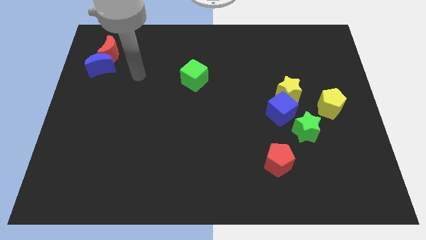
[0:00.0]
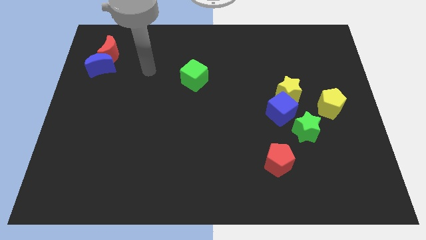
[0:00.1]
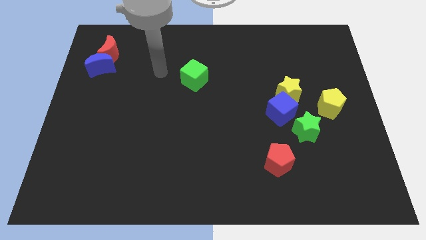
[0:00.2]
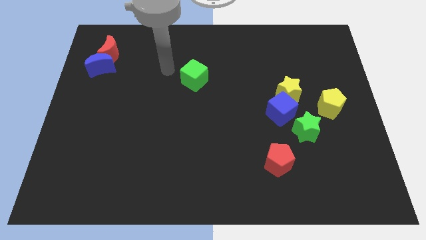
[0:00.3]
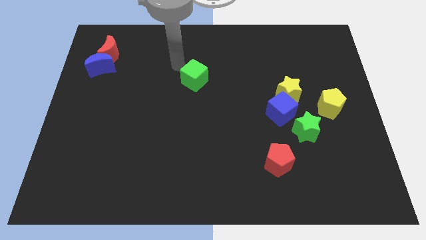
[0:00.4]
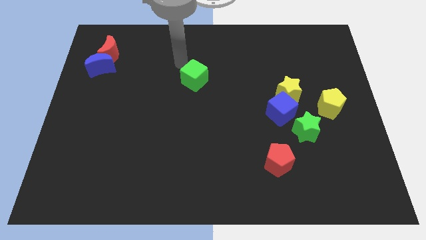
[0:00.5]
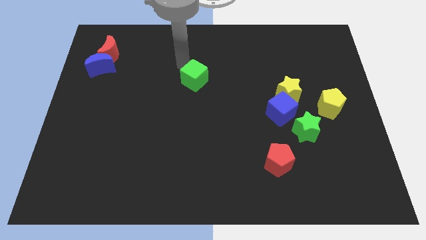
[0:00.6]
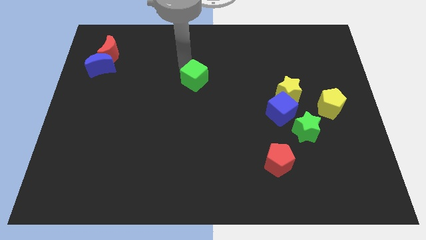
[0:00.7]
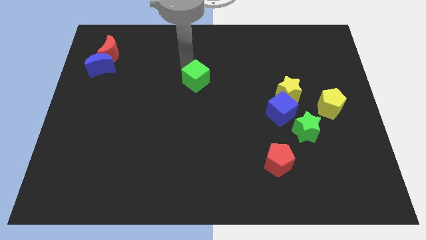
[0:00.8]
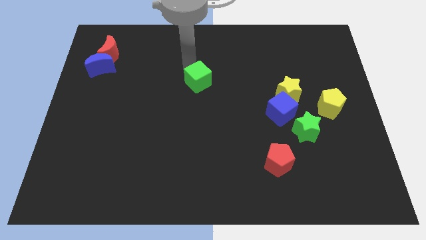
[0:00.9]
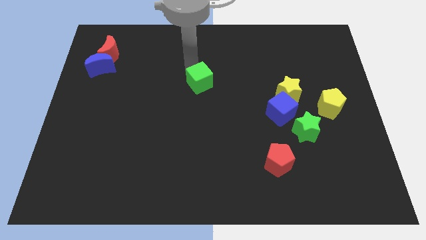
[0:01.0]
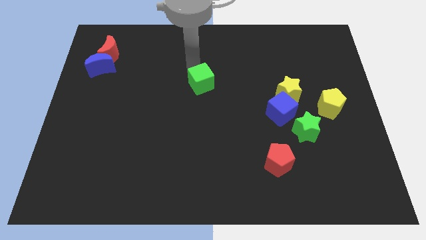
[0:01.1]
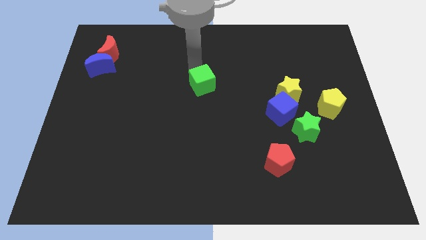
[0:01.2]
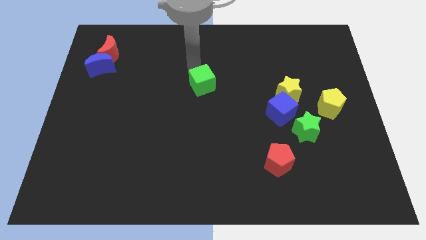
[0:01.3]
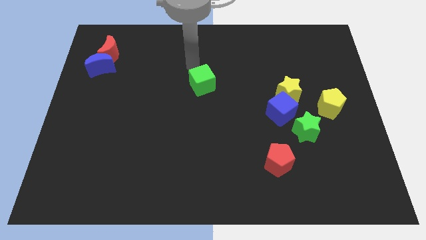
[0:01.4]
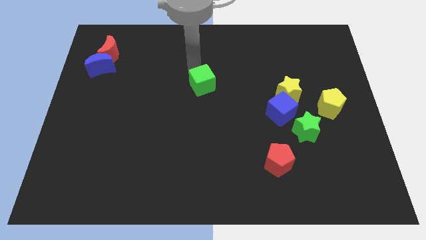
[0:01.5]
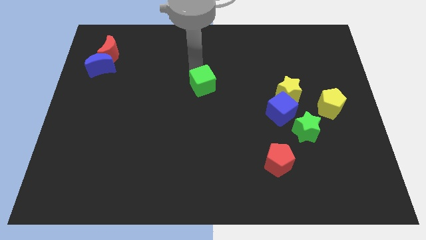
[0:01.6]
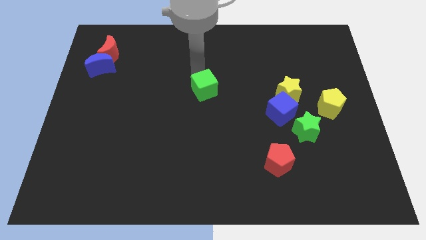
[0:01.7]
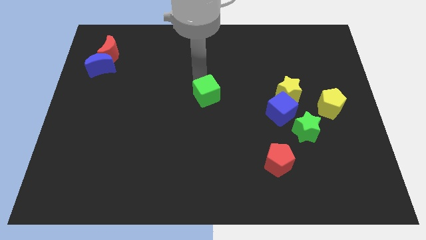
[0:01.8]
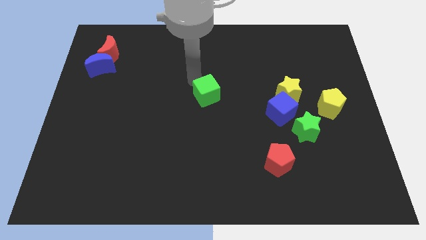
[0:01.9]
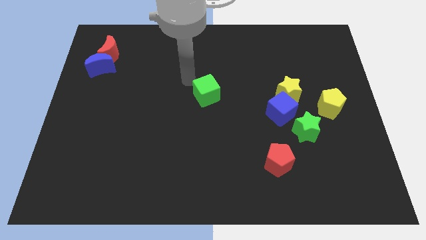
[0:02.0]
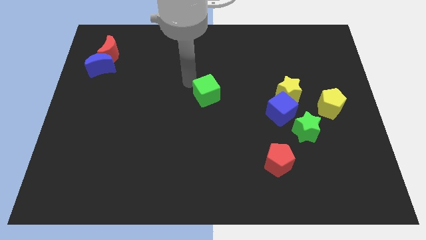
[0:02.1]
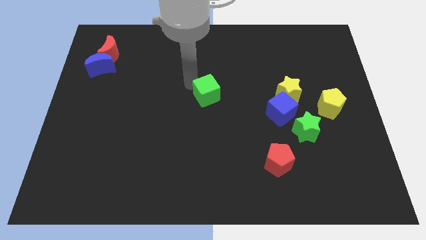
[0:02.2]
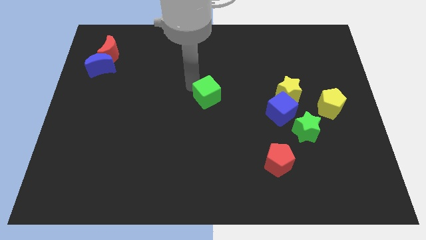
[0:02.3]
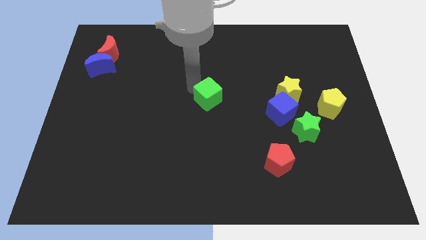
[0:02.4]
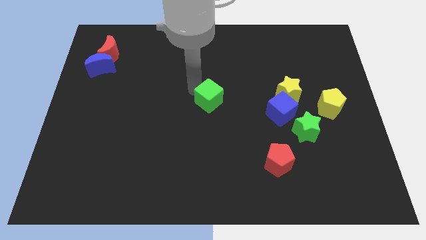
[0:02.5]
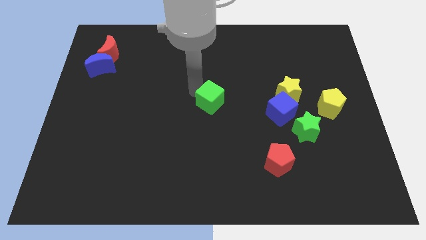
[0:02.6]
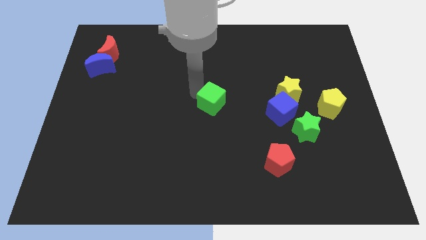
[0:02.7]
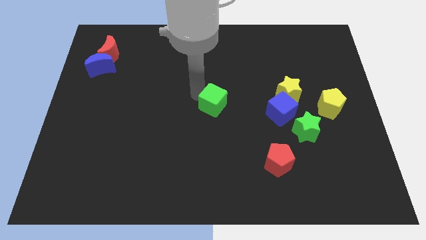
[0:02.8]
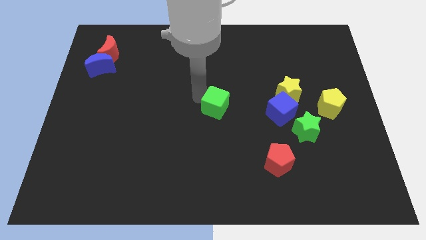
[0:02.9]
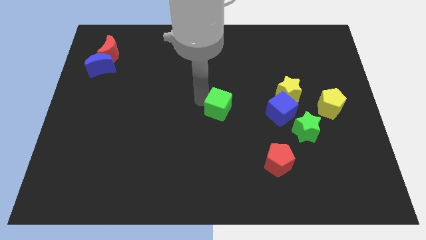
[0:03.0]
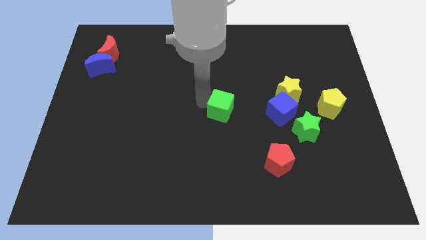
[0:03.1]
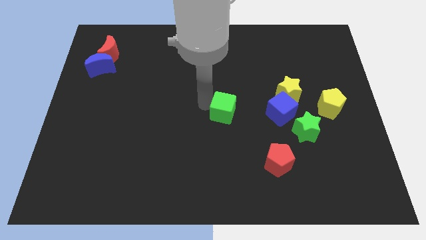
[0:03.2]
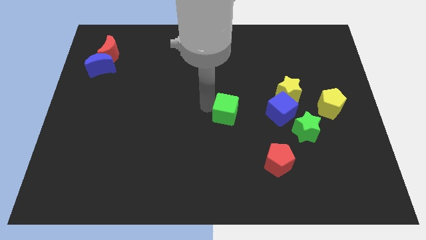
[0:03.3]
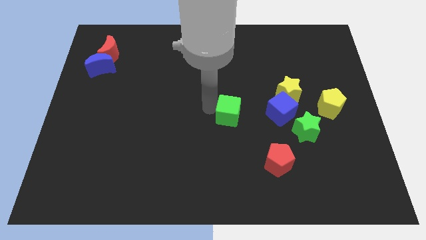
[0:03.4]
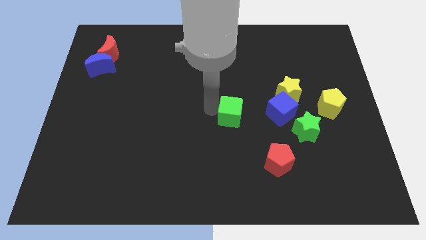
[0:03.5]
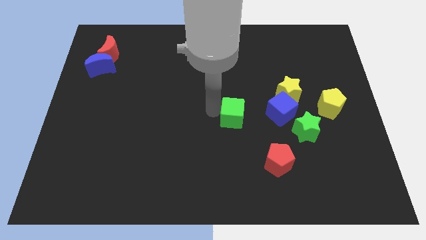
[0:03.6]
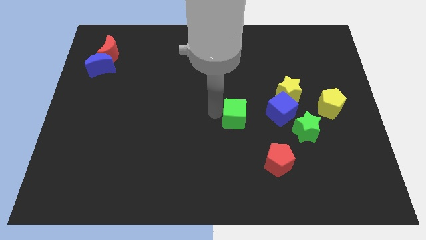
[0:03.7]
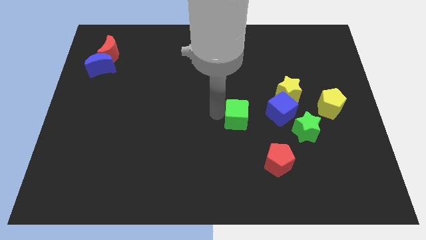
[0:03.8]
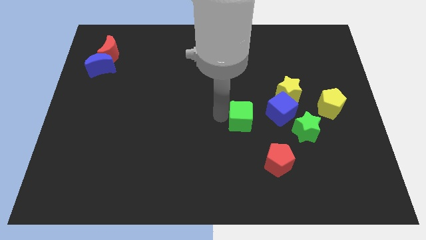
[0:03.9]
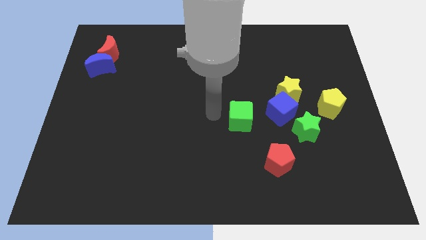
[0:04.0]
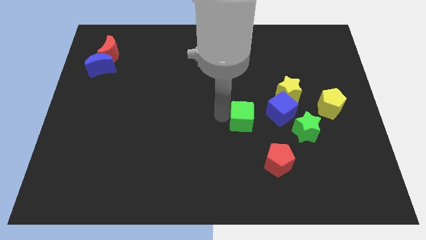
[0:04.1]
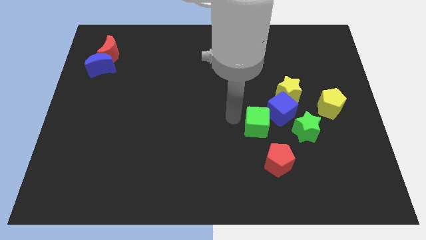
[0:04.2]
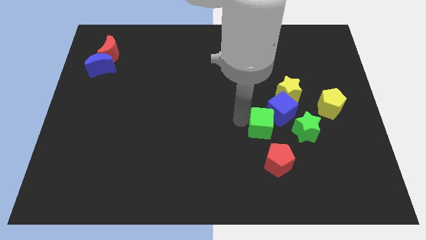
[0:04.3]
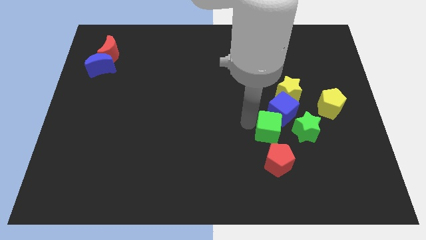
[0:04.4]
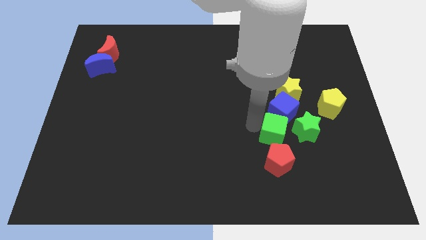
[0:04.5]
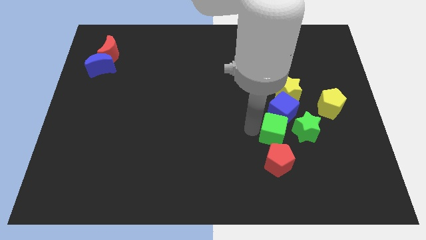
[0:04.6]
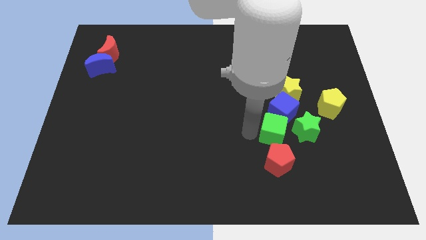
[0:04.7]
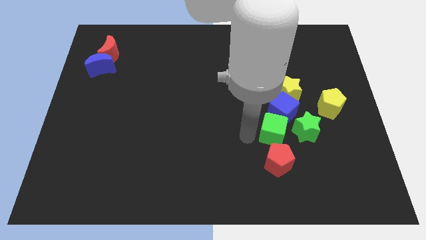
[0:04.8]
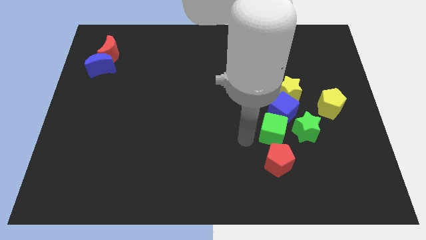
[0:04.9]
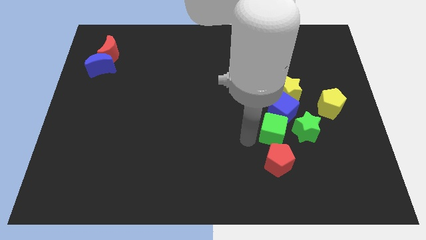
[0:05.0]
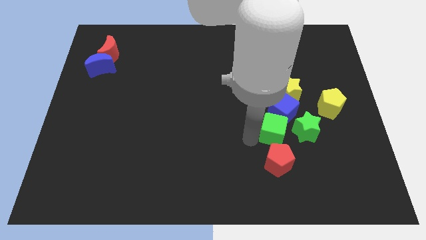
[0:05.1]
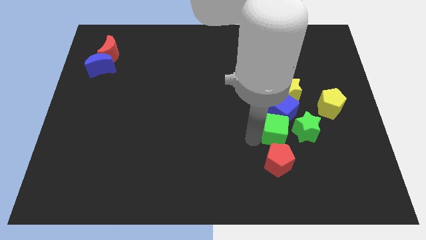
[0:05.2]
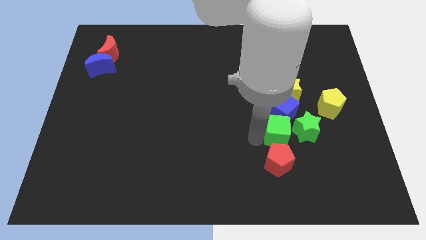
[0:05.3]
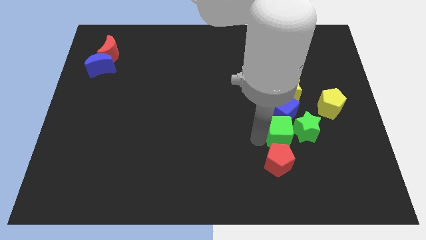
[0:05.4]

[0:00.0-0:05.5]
push the green cube close to the green star

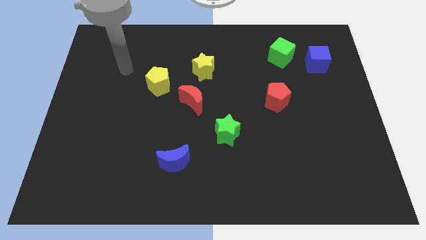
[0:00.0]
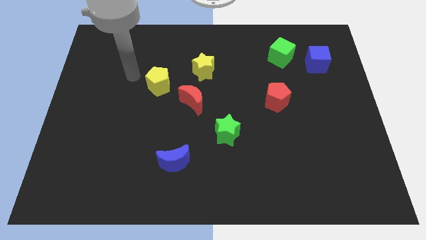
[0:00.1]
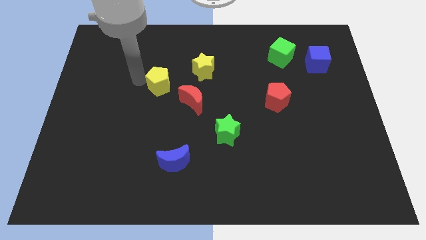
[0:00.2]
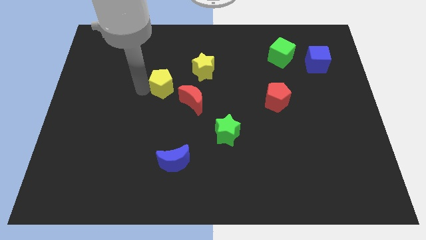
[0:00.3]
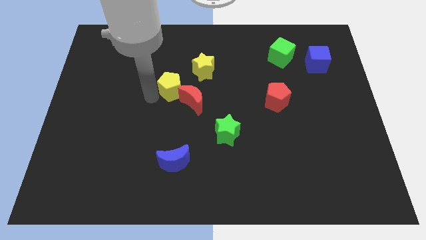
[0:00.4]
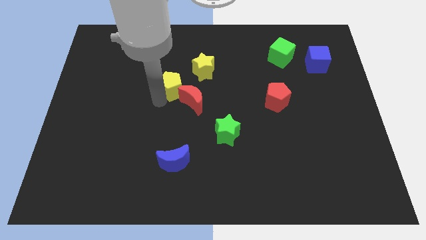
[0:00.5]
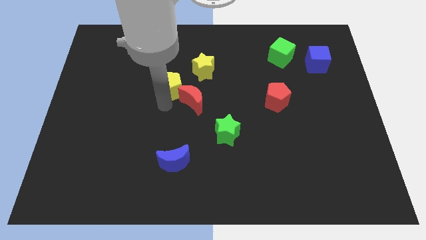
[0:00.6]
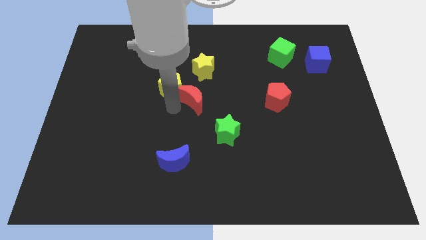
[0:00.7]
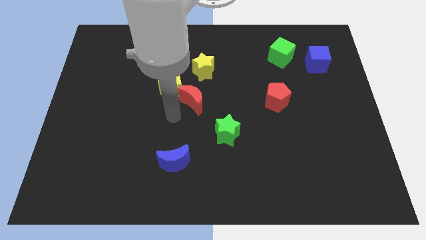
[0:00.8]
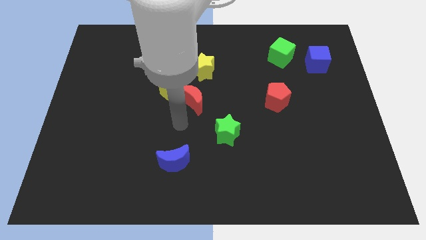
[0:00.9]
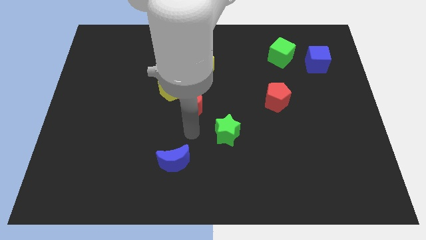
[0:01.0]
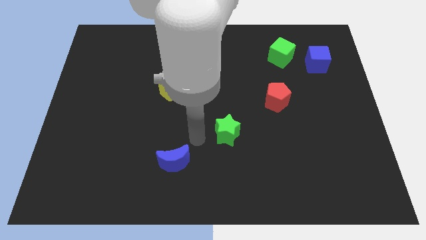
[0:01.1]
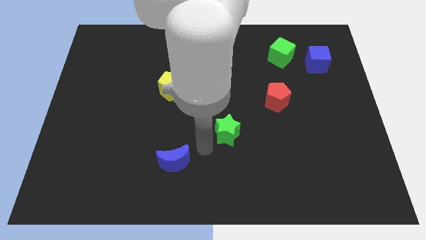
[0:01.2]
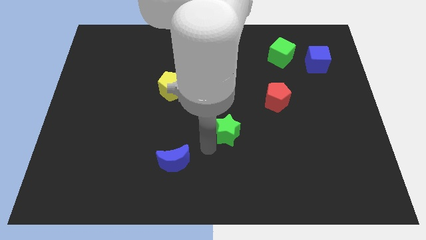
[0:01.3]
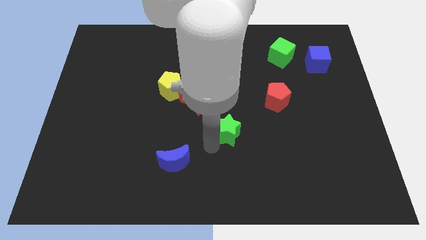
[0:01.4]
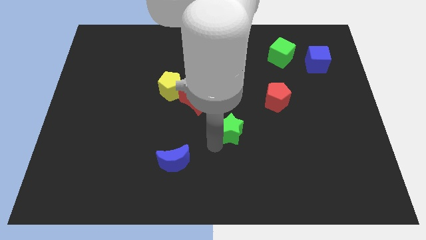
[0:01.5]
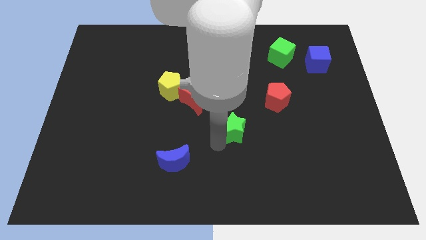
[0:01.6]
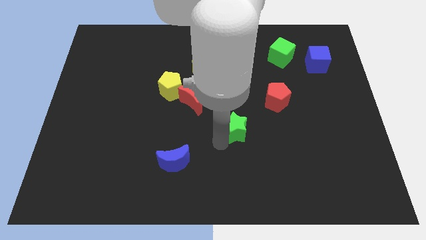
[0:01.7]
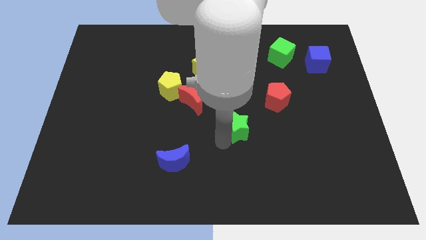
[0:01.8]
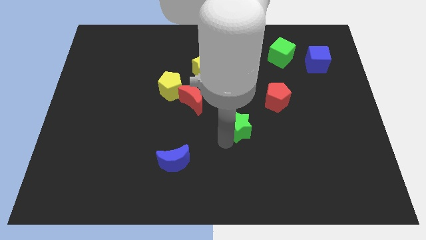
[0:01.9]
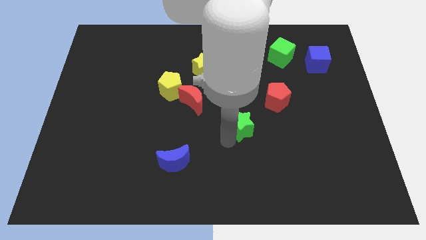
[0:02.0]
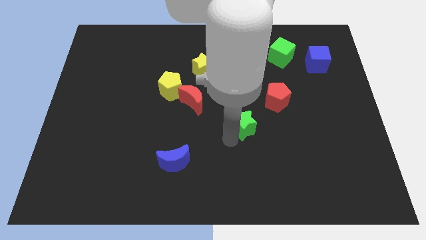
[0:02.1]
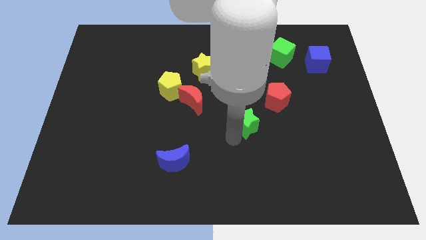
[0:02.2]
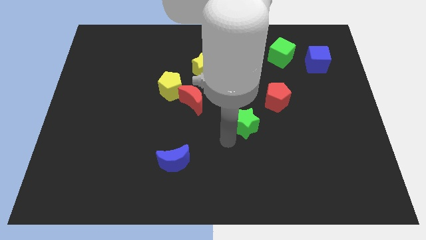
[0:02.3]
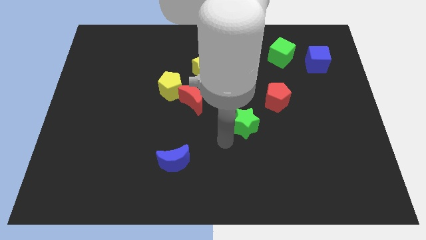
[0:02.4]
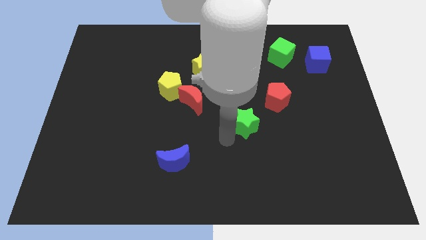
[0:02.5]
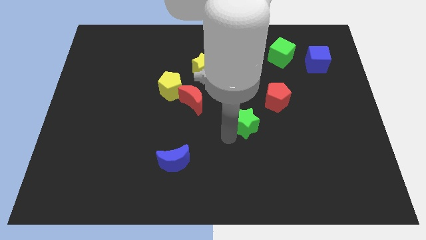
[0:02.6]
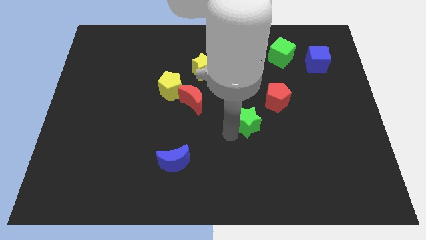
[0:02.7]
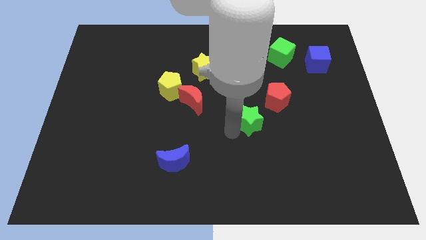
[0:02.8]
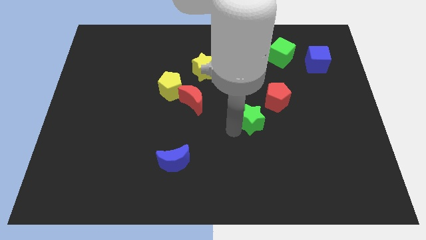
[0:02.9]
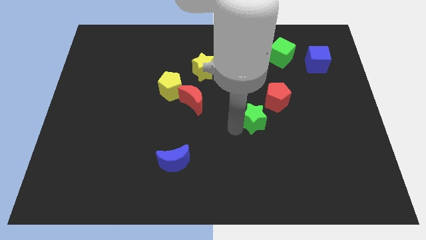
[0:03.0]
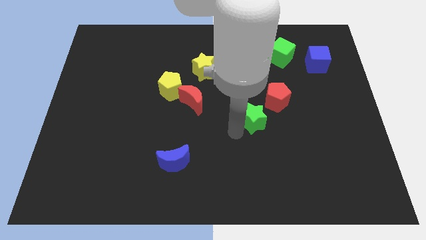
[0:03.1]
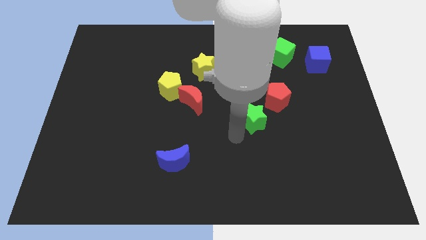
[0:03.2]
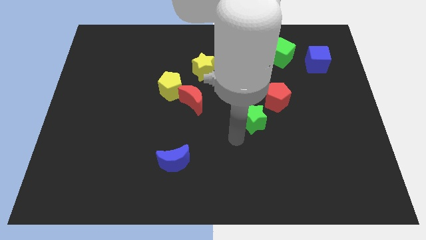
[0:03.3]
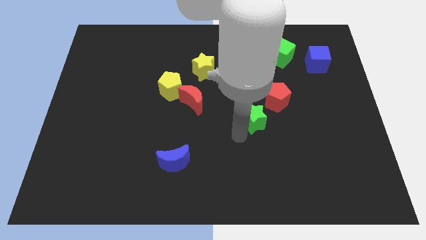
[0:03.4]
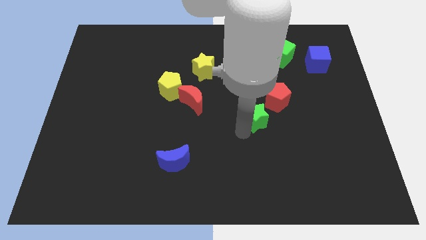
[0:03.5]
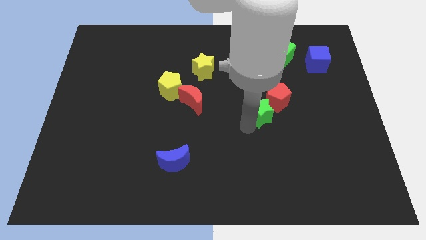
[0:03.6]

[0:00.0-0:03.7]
slide the green star close to the red pentagon
